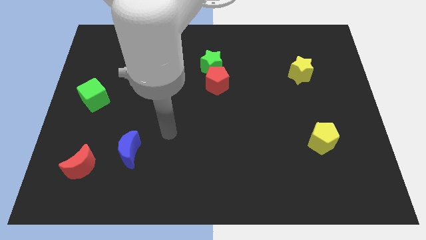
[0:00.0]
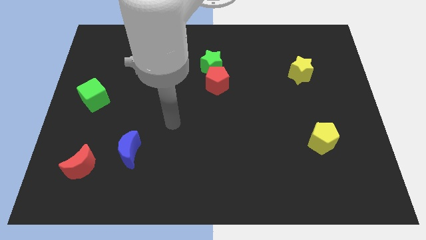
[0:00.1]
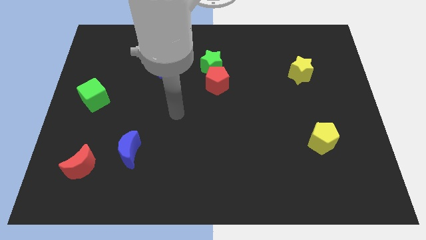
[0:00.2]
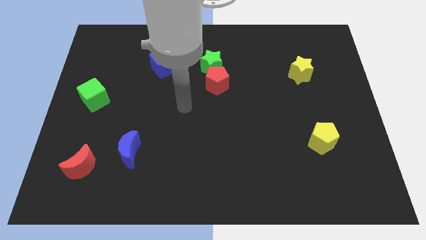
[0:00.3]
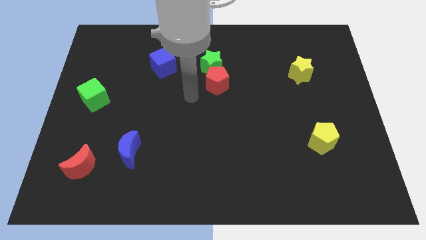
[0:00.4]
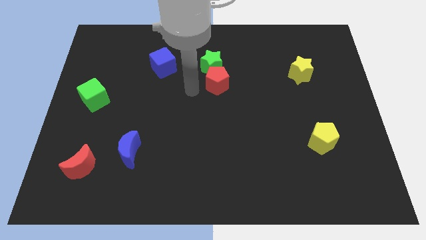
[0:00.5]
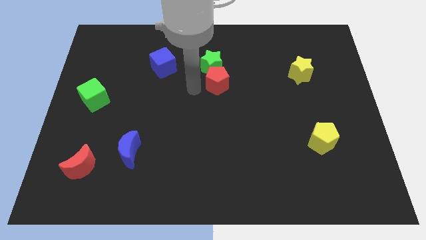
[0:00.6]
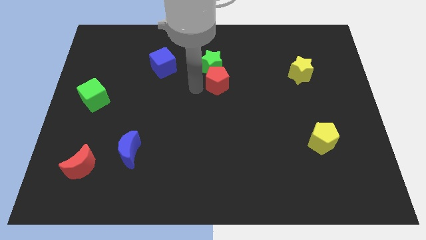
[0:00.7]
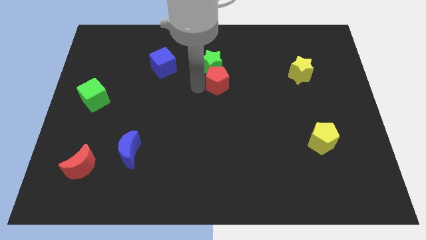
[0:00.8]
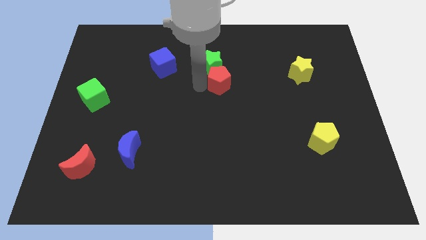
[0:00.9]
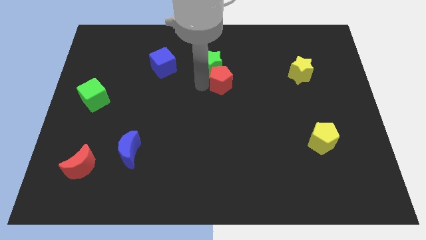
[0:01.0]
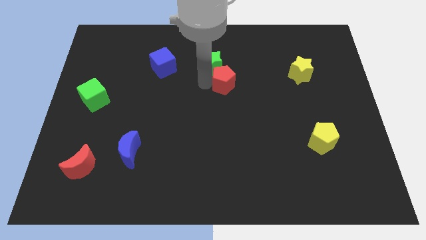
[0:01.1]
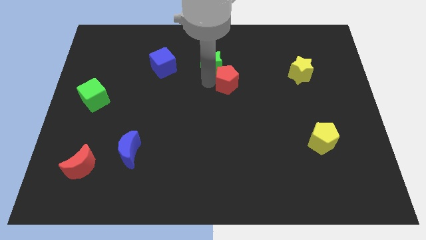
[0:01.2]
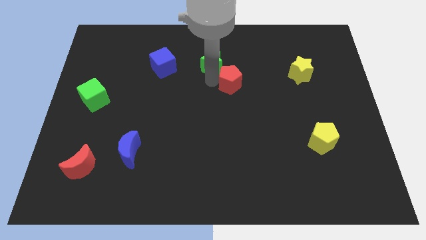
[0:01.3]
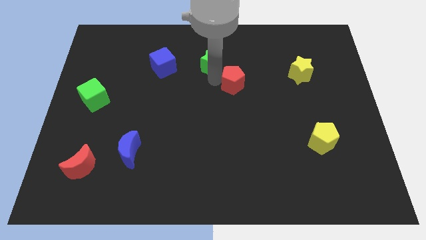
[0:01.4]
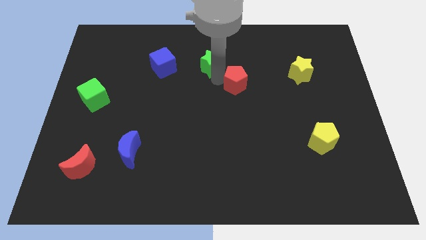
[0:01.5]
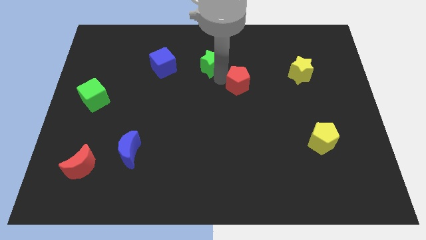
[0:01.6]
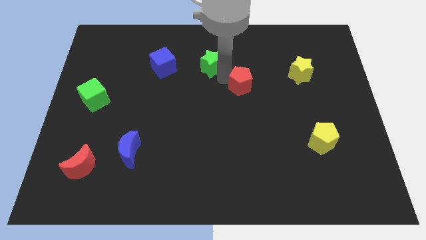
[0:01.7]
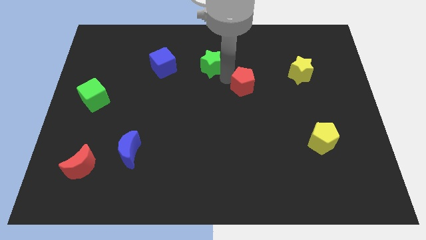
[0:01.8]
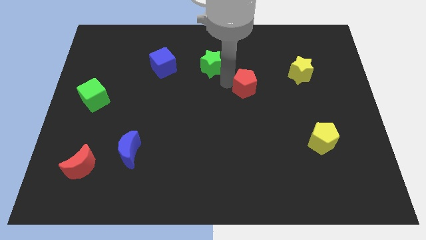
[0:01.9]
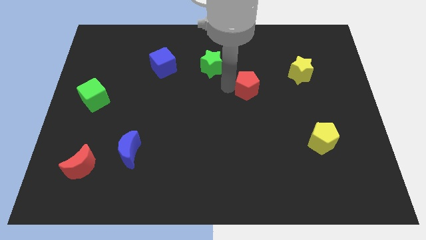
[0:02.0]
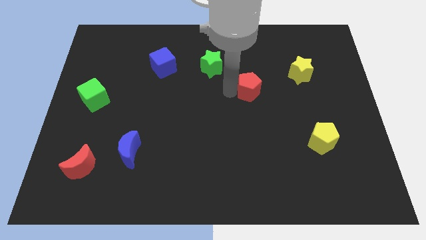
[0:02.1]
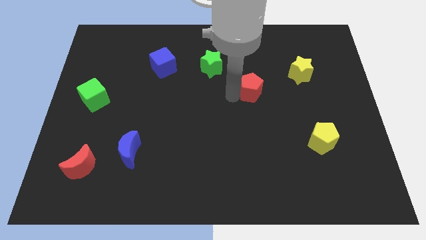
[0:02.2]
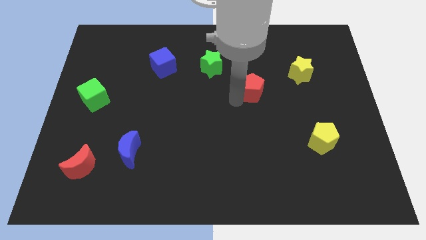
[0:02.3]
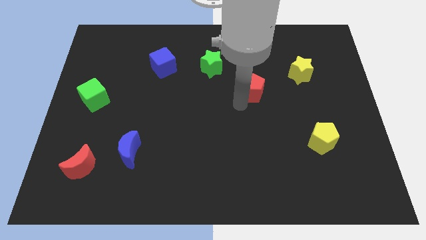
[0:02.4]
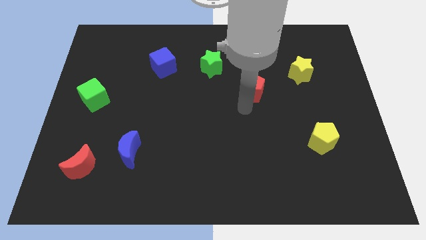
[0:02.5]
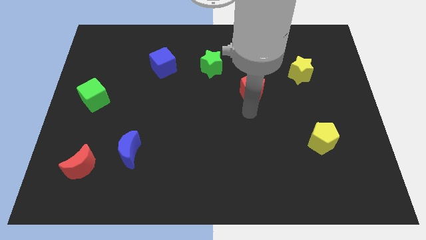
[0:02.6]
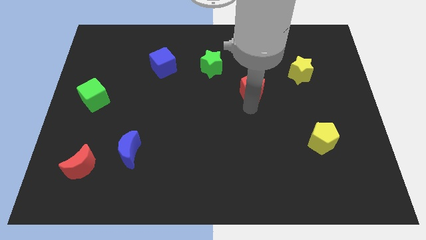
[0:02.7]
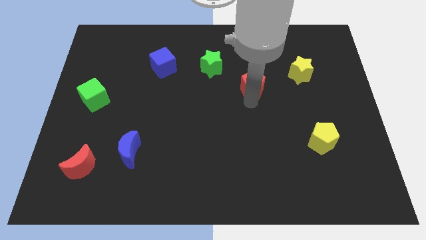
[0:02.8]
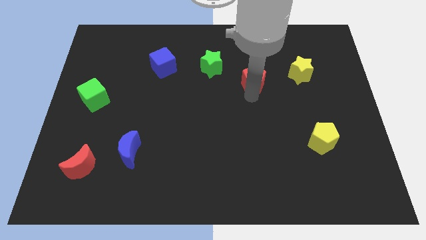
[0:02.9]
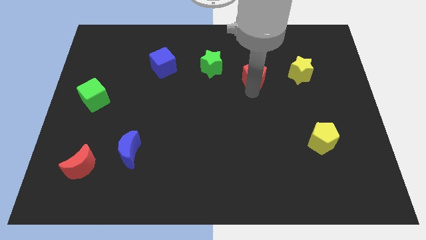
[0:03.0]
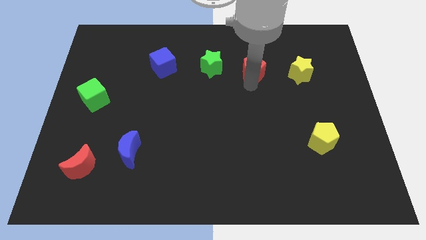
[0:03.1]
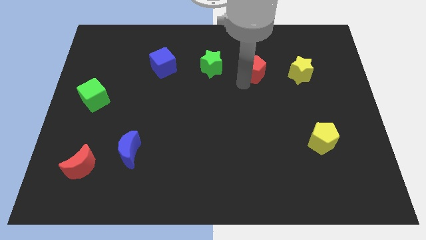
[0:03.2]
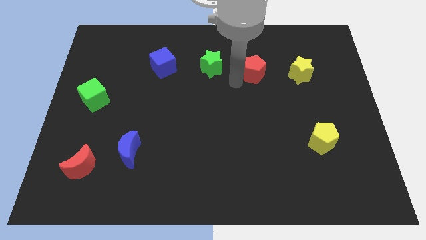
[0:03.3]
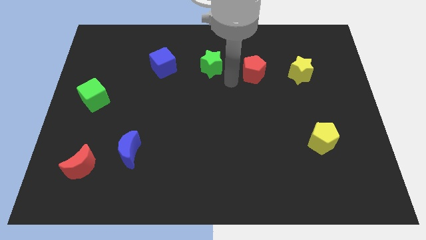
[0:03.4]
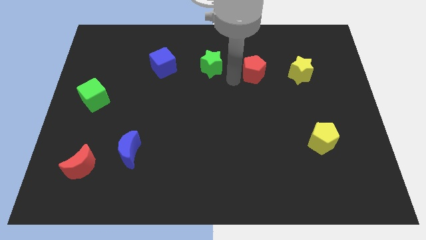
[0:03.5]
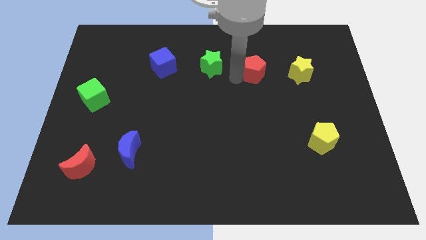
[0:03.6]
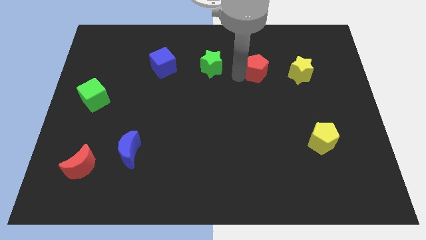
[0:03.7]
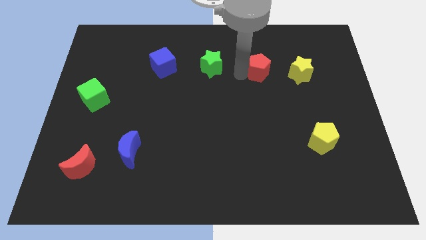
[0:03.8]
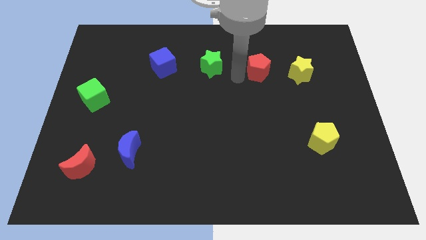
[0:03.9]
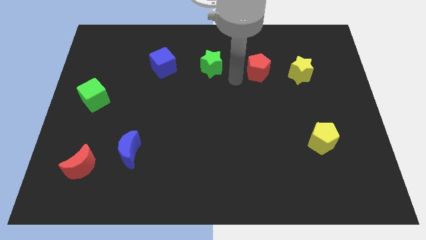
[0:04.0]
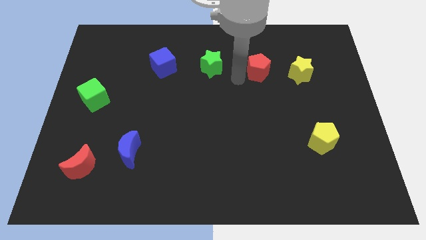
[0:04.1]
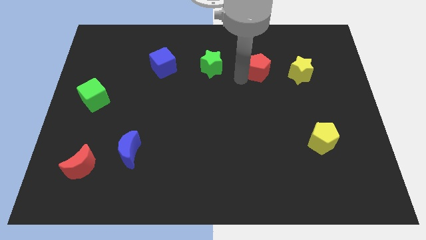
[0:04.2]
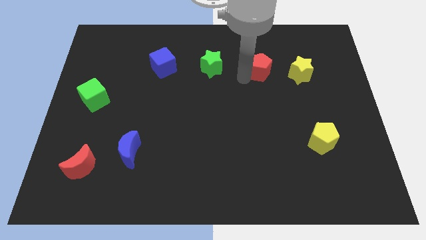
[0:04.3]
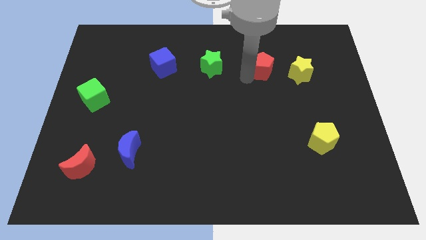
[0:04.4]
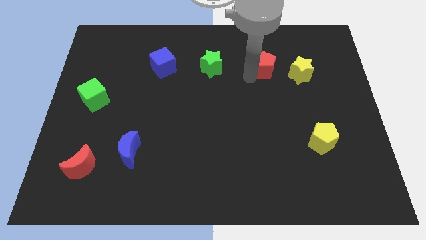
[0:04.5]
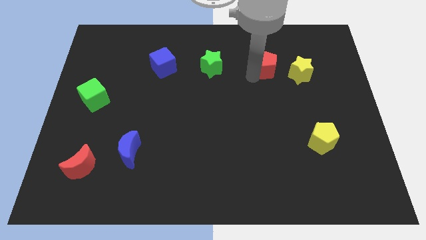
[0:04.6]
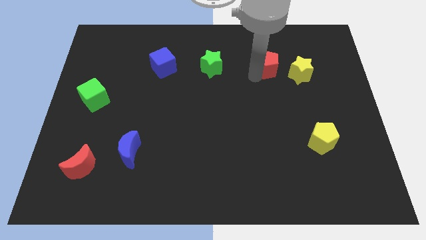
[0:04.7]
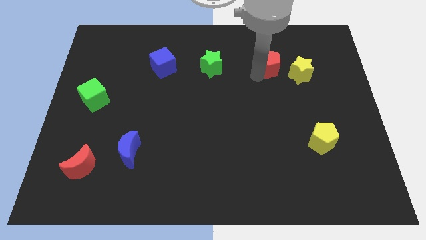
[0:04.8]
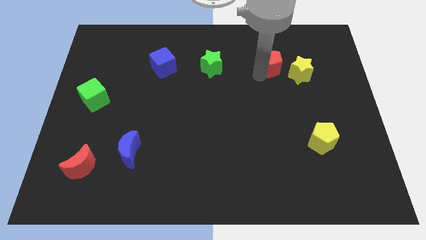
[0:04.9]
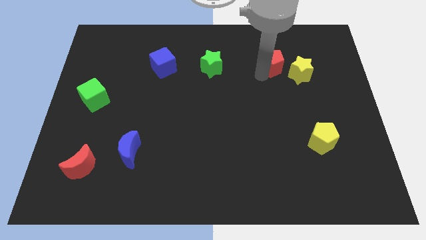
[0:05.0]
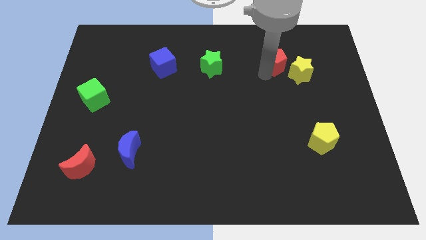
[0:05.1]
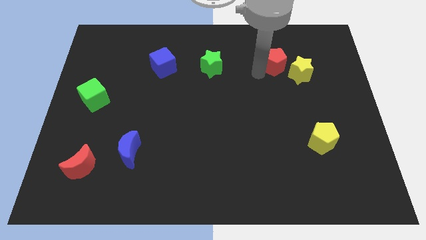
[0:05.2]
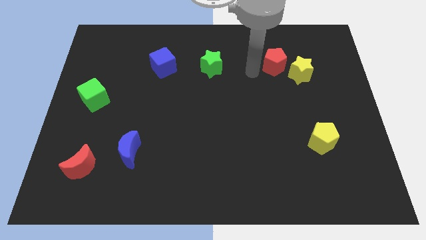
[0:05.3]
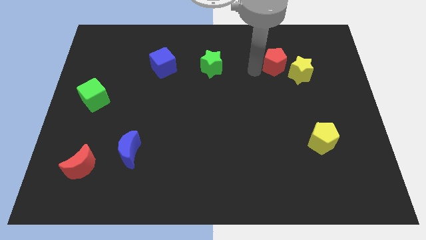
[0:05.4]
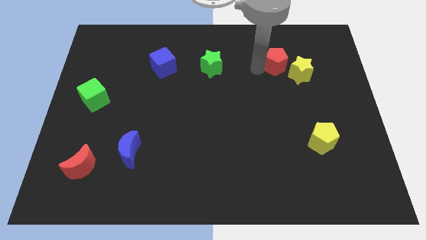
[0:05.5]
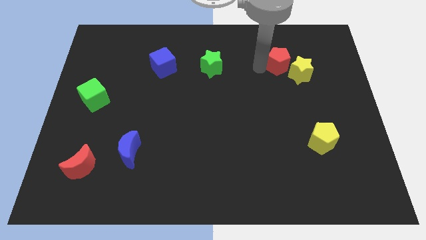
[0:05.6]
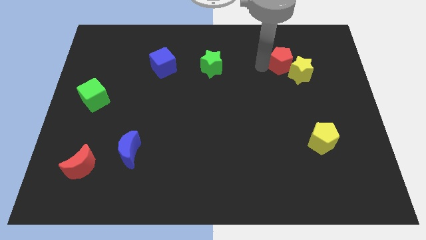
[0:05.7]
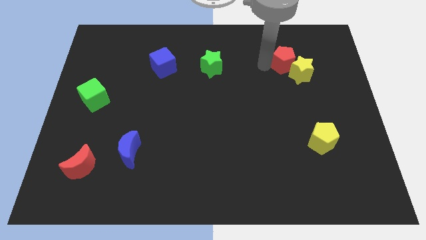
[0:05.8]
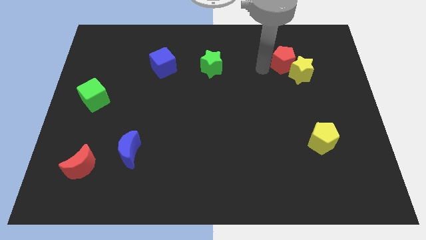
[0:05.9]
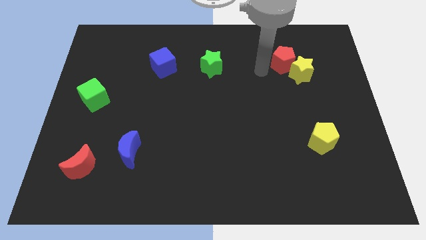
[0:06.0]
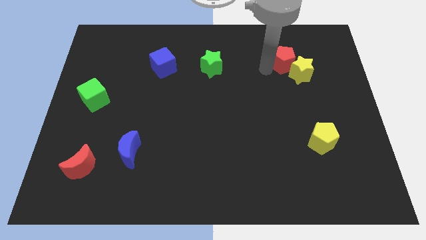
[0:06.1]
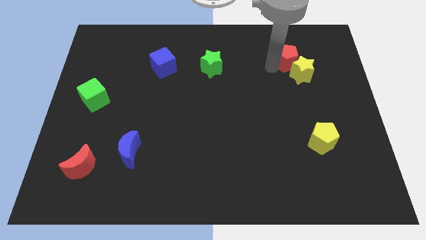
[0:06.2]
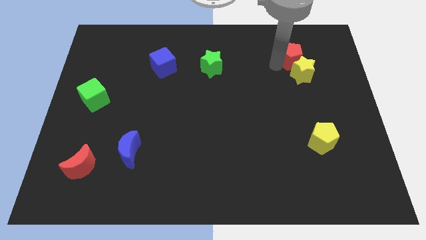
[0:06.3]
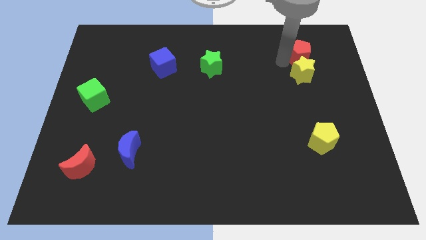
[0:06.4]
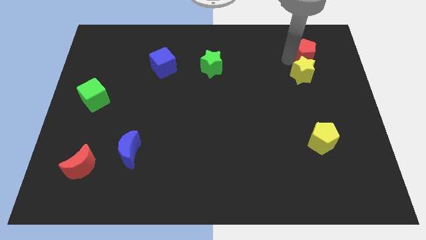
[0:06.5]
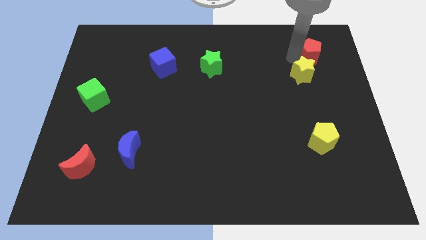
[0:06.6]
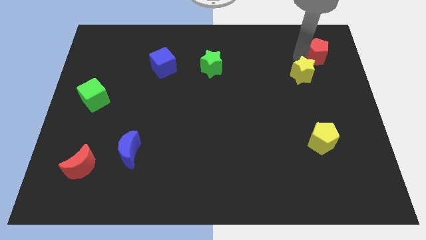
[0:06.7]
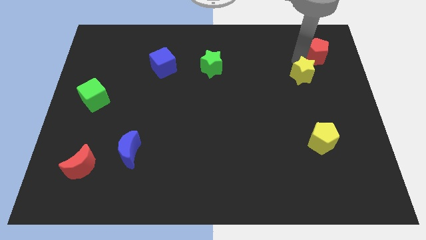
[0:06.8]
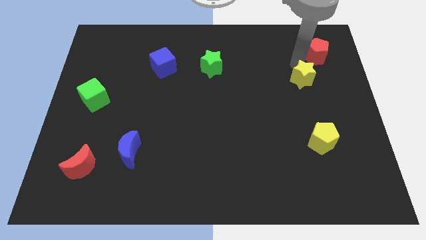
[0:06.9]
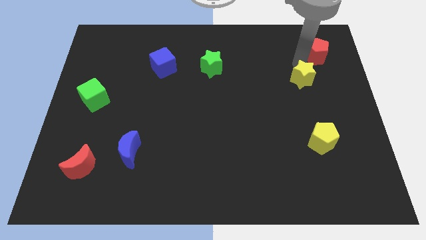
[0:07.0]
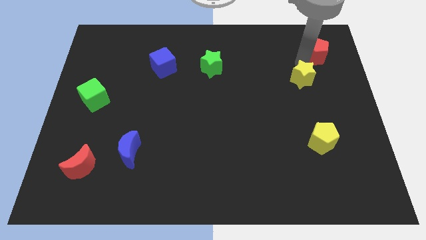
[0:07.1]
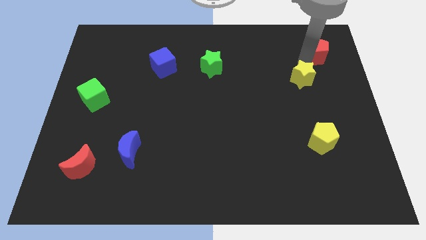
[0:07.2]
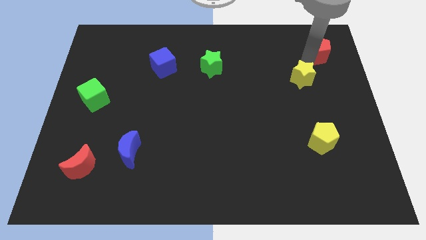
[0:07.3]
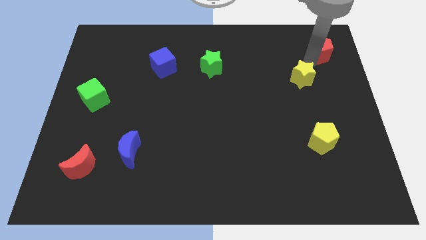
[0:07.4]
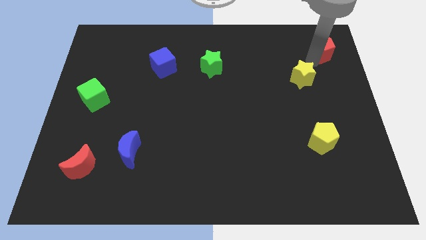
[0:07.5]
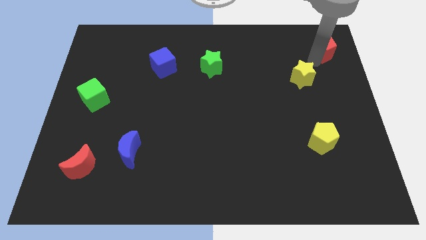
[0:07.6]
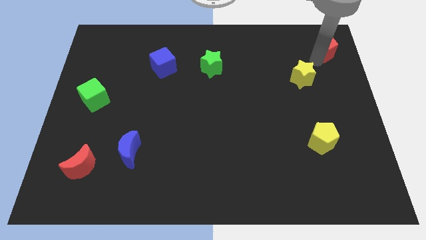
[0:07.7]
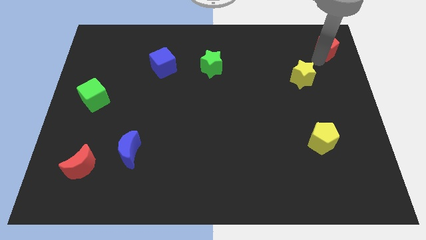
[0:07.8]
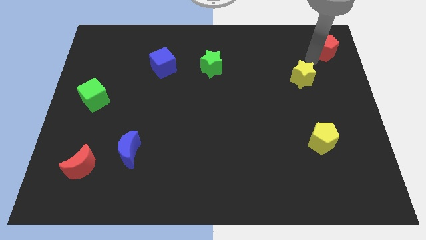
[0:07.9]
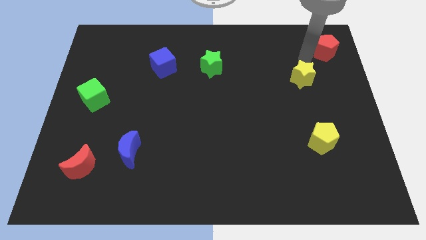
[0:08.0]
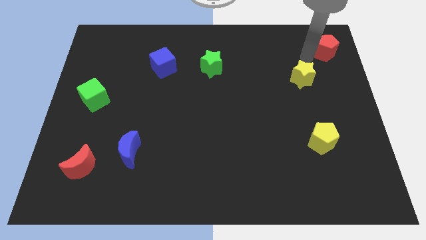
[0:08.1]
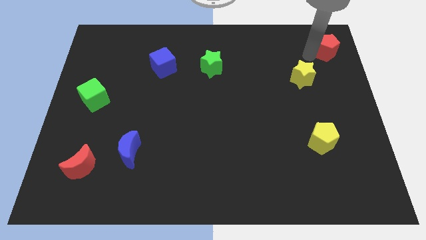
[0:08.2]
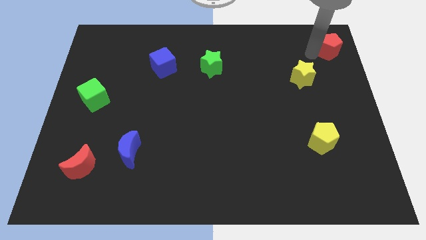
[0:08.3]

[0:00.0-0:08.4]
put the red pentagon to the top right
